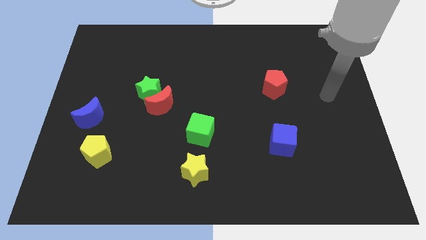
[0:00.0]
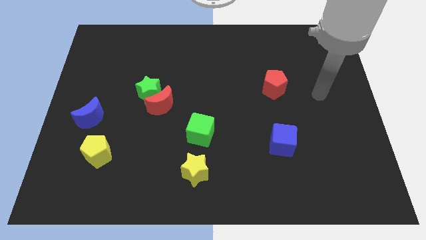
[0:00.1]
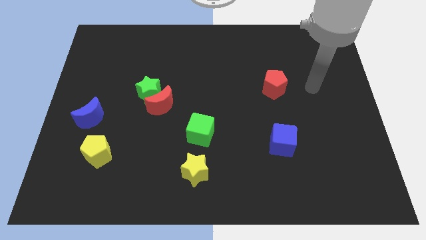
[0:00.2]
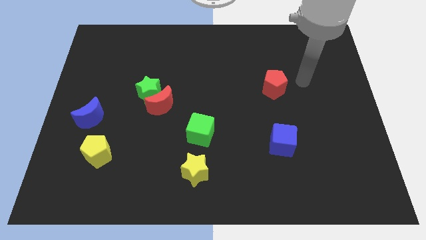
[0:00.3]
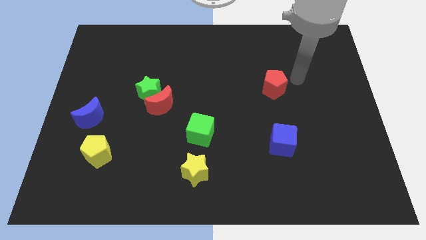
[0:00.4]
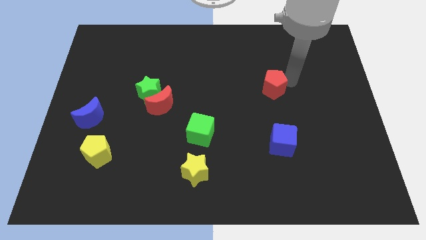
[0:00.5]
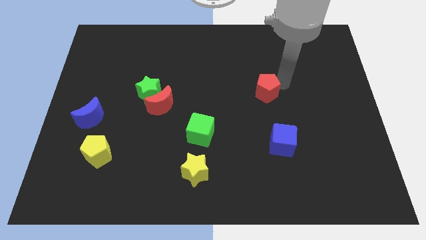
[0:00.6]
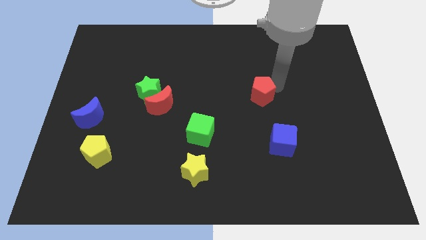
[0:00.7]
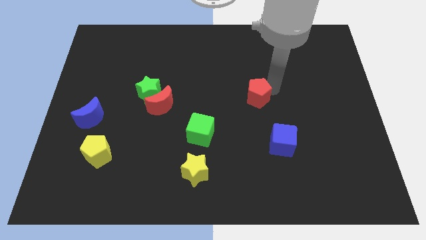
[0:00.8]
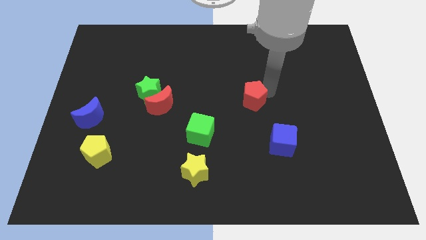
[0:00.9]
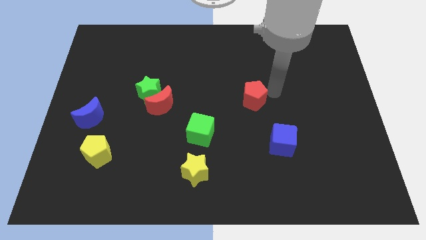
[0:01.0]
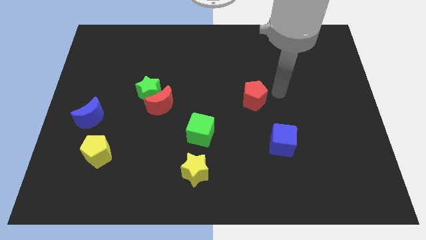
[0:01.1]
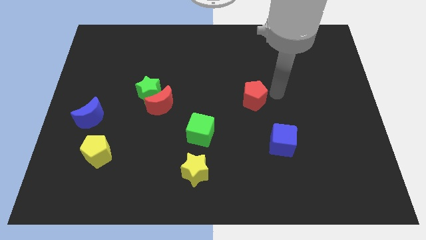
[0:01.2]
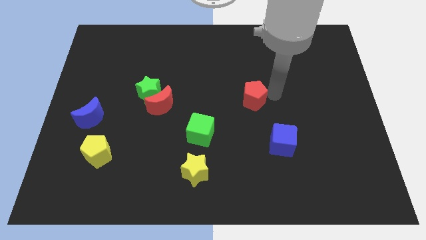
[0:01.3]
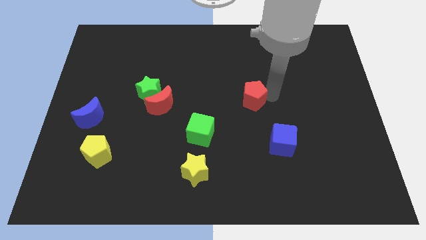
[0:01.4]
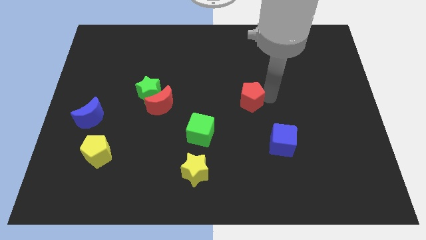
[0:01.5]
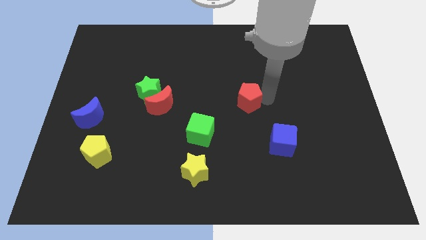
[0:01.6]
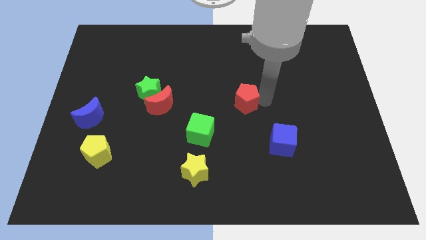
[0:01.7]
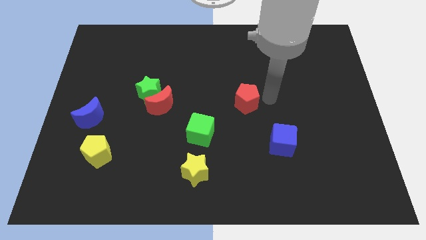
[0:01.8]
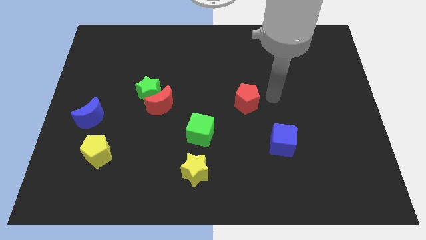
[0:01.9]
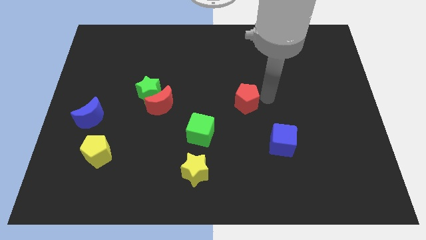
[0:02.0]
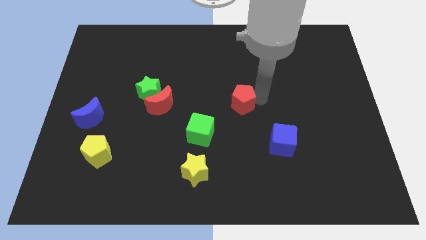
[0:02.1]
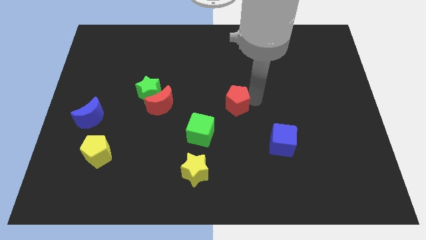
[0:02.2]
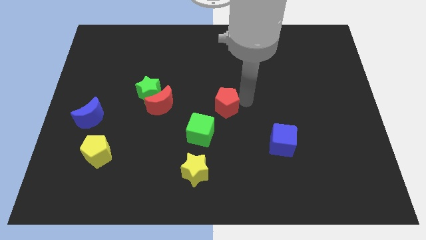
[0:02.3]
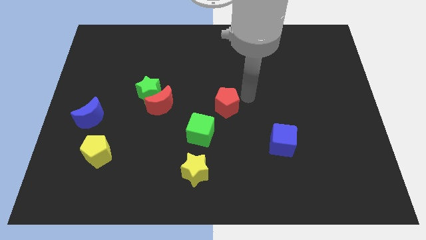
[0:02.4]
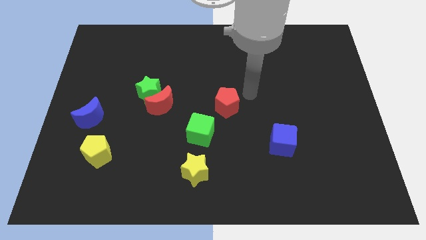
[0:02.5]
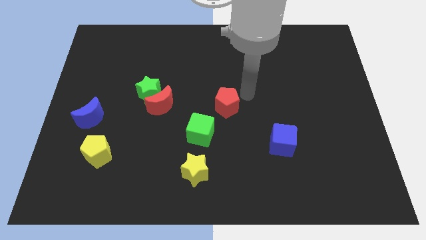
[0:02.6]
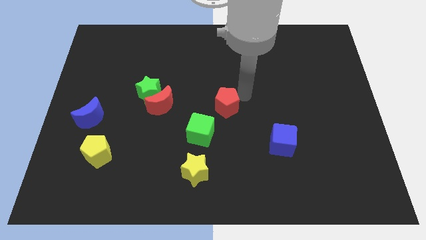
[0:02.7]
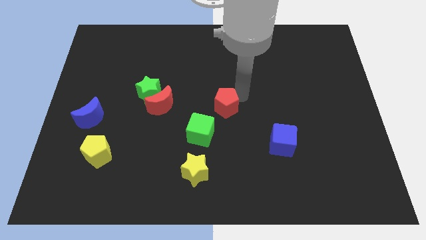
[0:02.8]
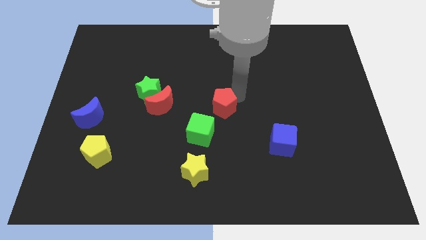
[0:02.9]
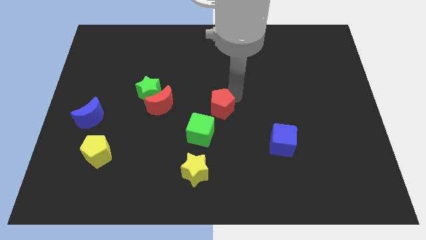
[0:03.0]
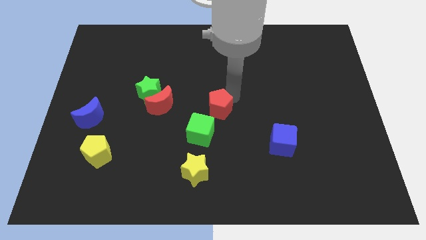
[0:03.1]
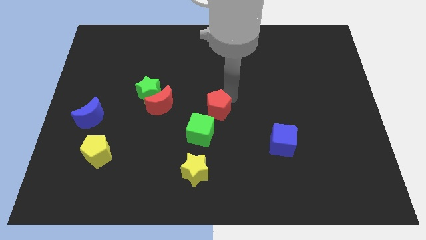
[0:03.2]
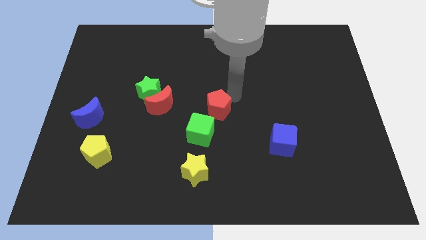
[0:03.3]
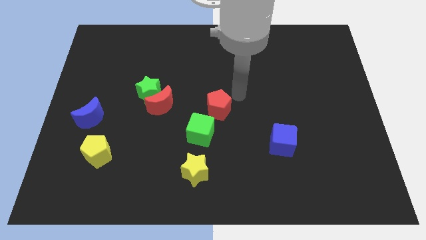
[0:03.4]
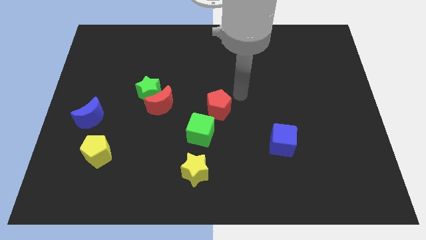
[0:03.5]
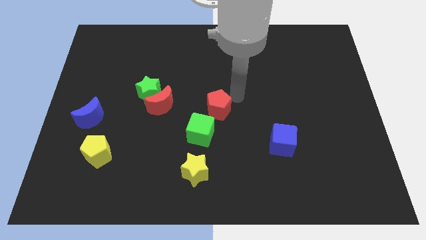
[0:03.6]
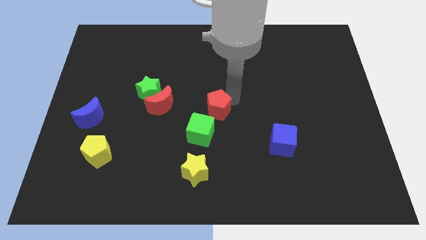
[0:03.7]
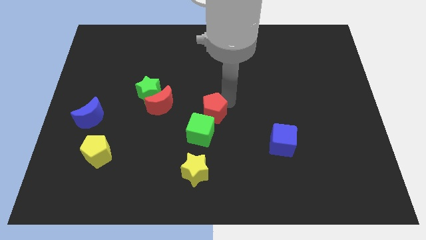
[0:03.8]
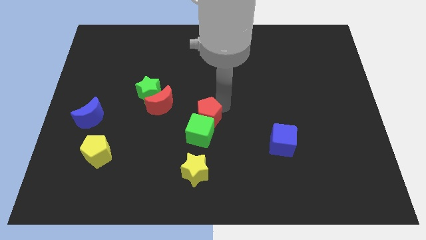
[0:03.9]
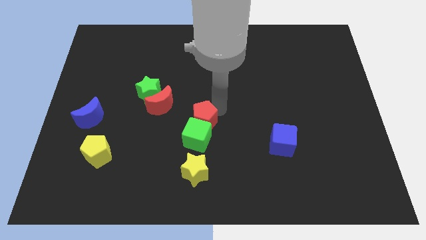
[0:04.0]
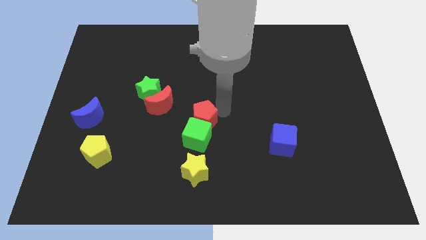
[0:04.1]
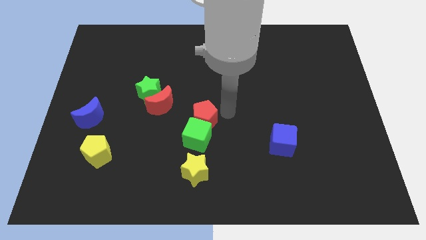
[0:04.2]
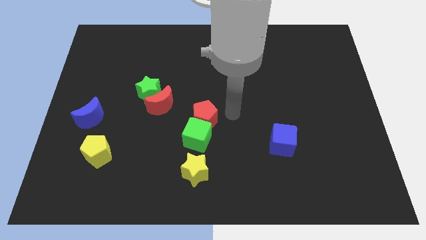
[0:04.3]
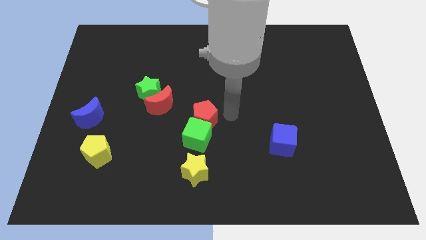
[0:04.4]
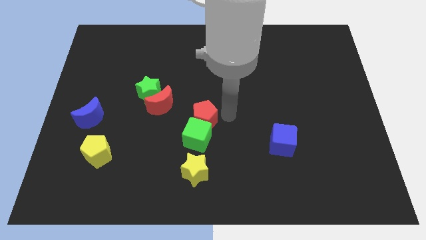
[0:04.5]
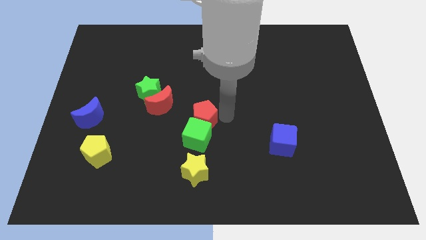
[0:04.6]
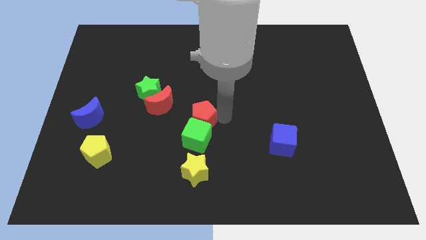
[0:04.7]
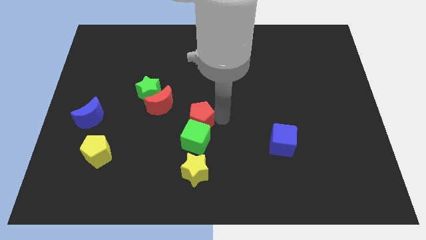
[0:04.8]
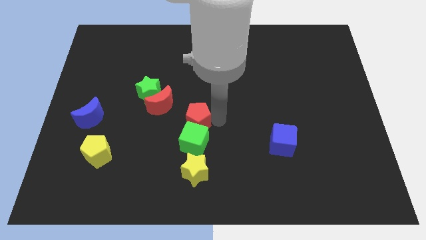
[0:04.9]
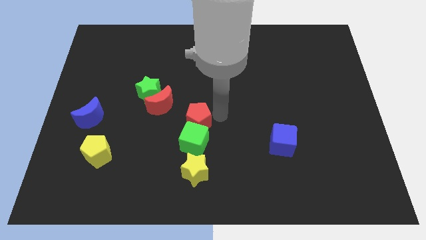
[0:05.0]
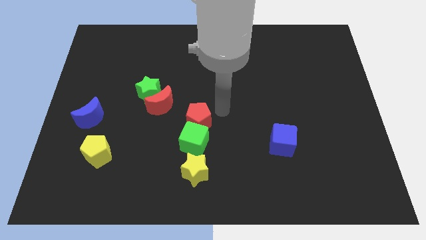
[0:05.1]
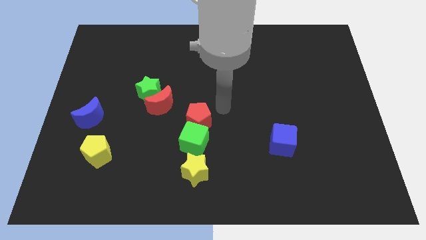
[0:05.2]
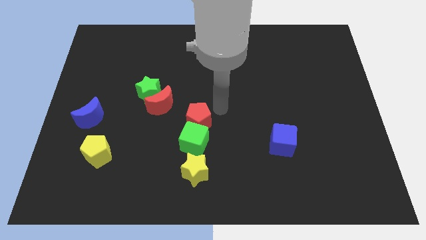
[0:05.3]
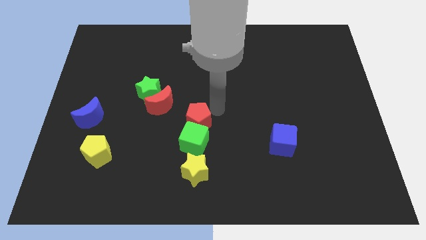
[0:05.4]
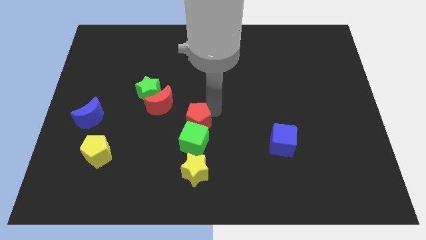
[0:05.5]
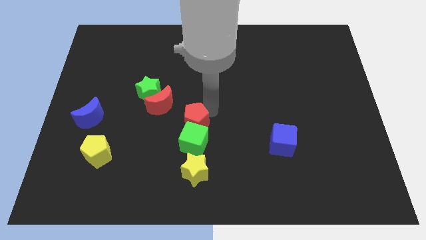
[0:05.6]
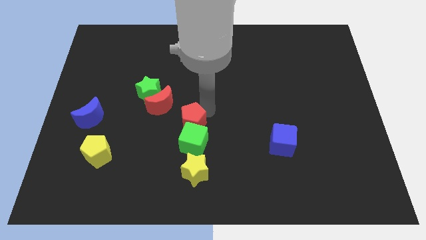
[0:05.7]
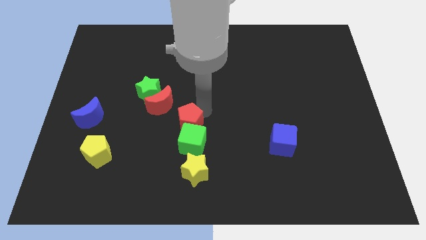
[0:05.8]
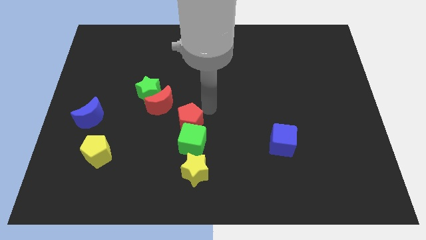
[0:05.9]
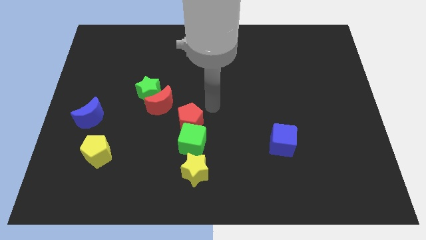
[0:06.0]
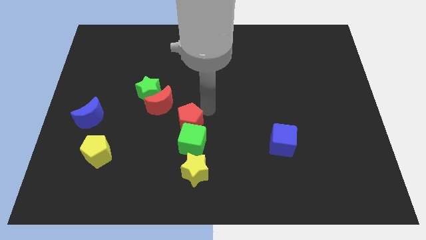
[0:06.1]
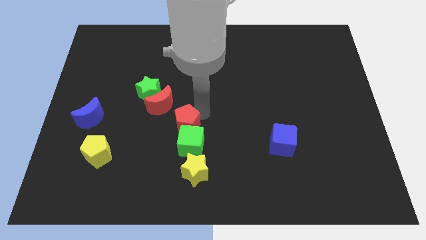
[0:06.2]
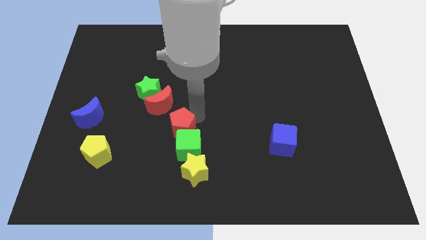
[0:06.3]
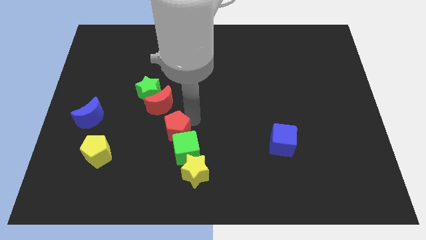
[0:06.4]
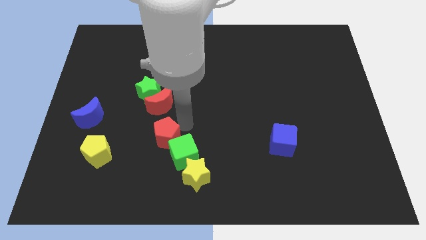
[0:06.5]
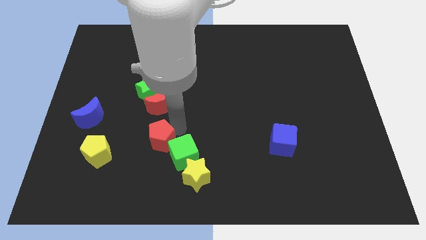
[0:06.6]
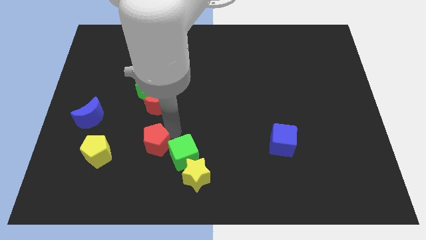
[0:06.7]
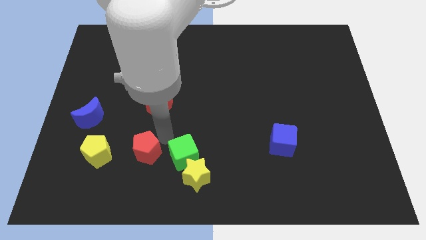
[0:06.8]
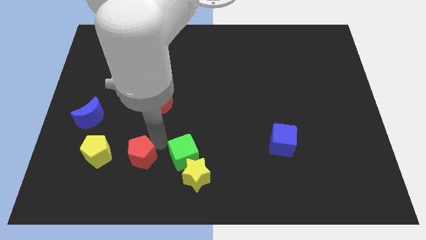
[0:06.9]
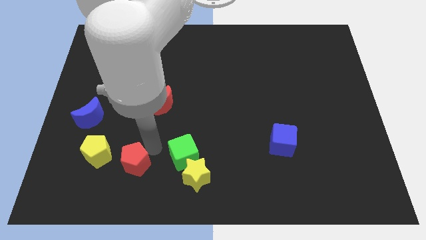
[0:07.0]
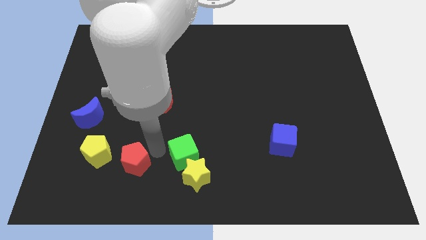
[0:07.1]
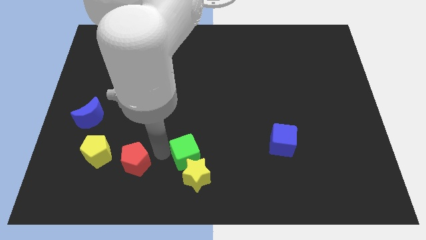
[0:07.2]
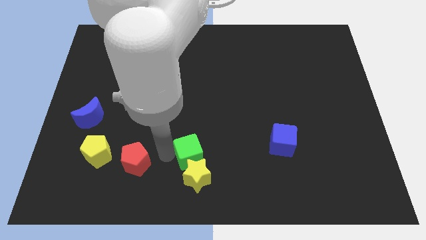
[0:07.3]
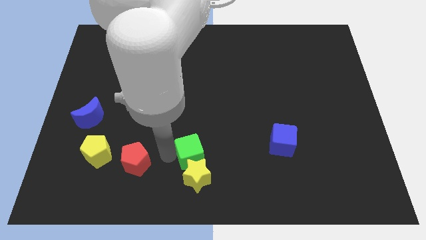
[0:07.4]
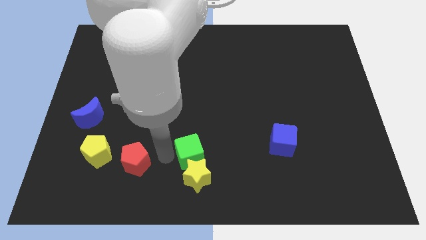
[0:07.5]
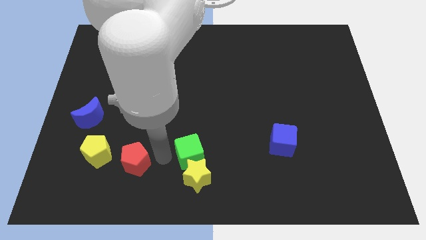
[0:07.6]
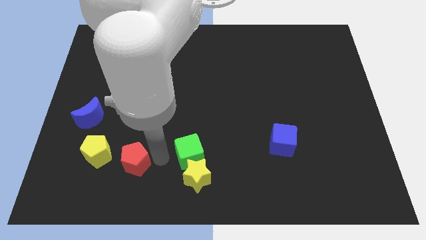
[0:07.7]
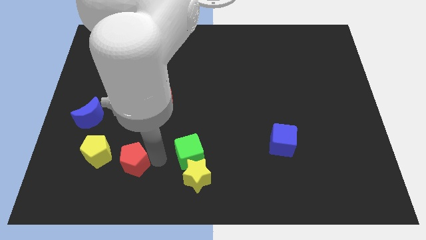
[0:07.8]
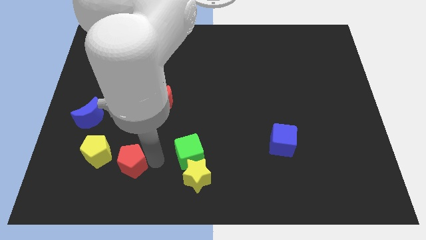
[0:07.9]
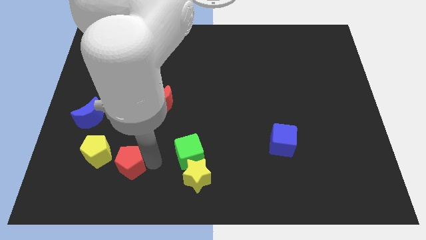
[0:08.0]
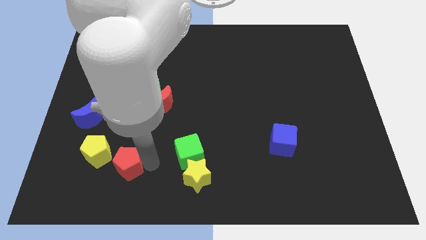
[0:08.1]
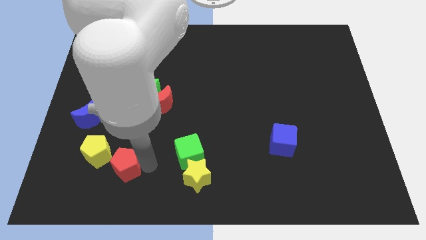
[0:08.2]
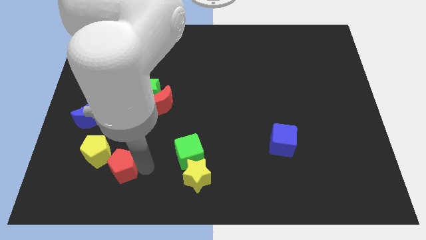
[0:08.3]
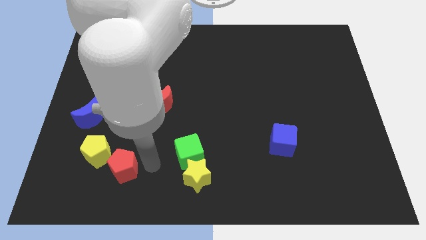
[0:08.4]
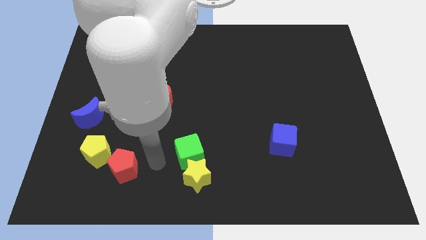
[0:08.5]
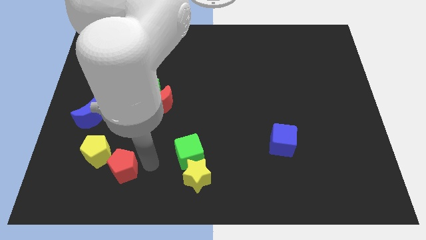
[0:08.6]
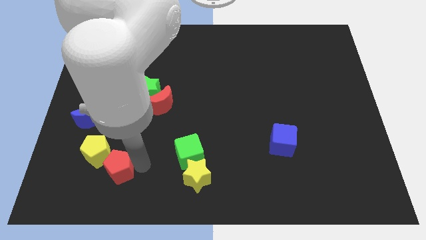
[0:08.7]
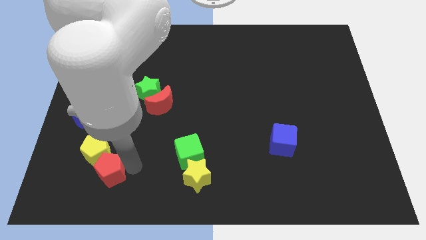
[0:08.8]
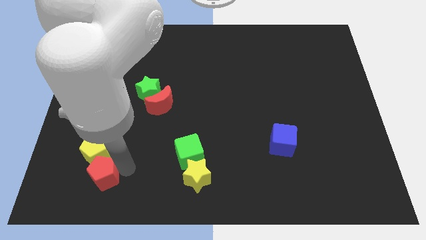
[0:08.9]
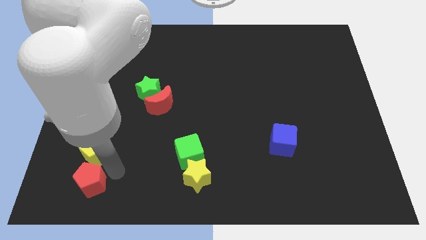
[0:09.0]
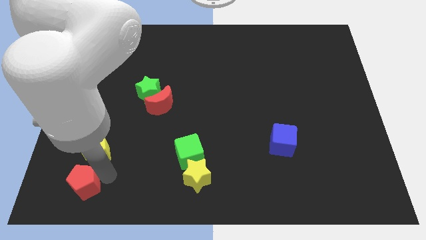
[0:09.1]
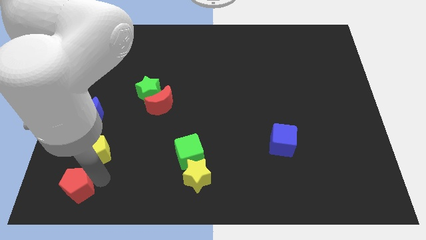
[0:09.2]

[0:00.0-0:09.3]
put the red pentagon to the bottom left of the board
